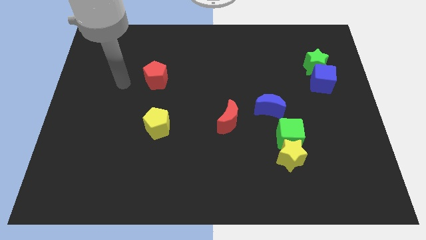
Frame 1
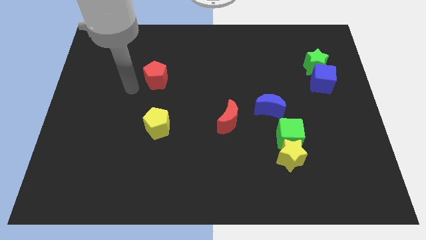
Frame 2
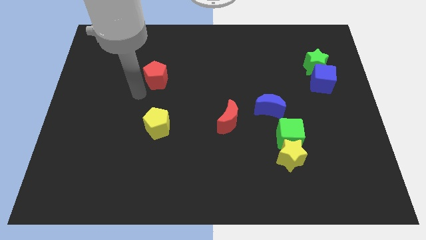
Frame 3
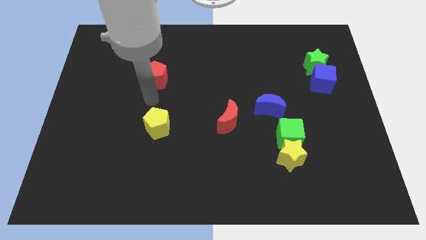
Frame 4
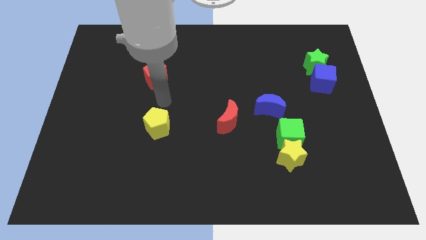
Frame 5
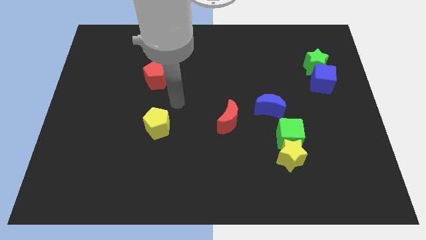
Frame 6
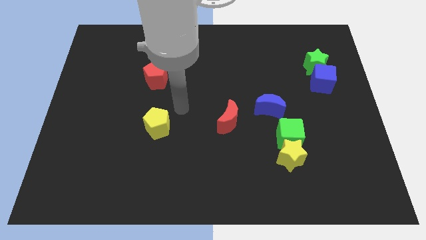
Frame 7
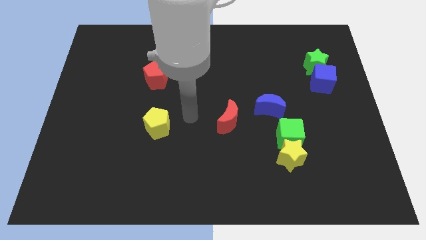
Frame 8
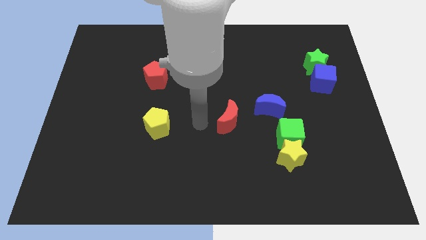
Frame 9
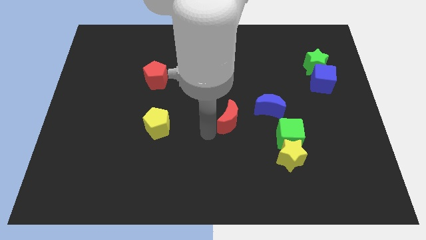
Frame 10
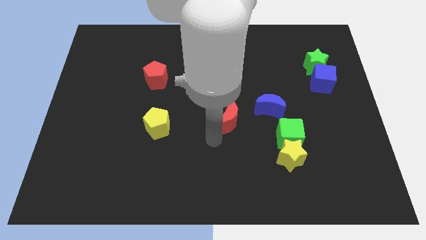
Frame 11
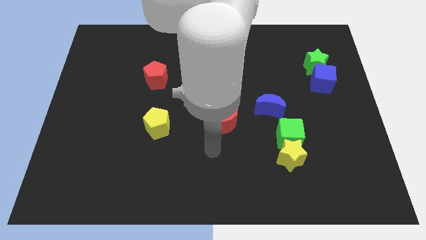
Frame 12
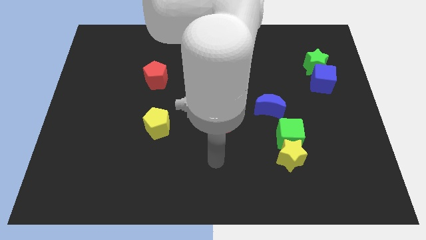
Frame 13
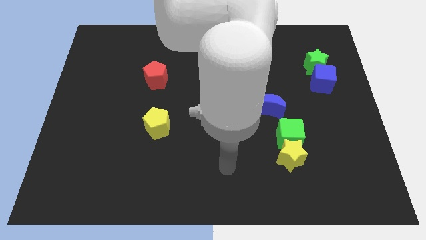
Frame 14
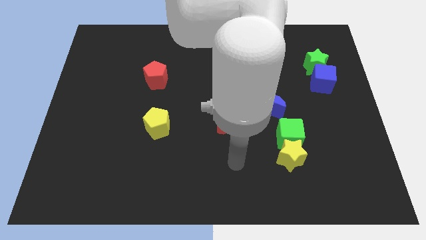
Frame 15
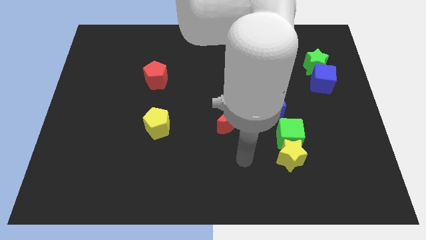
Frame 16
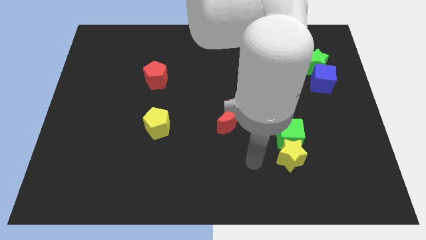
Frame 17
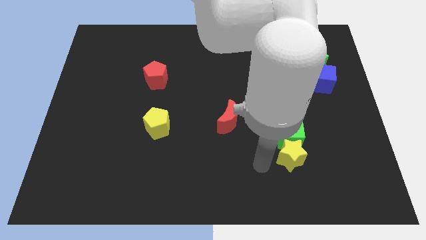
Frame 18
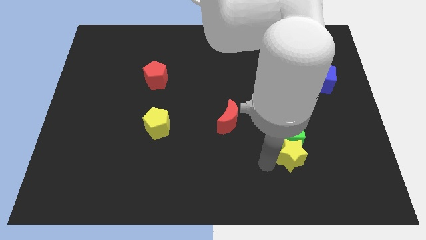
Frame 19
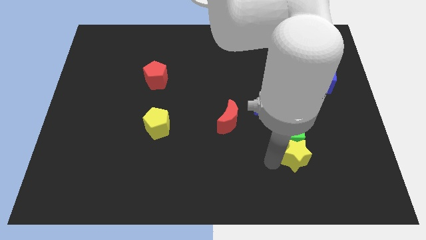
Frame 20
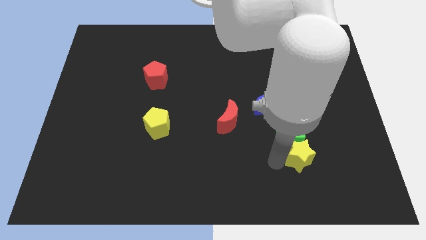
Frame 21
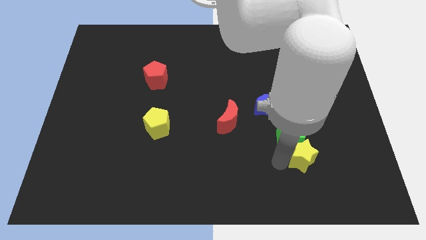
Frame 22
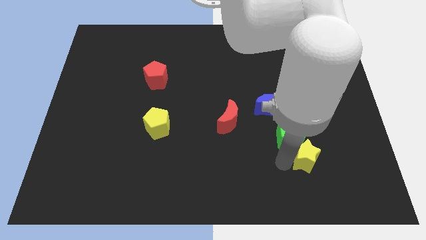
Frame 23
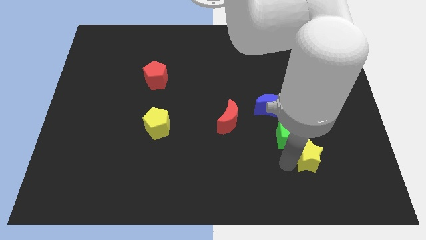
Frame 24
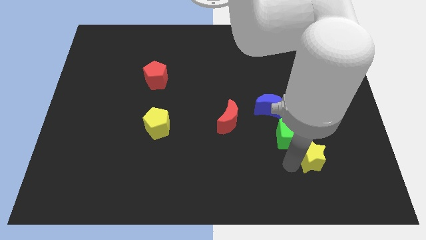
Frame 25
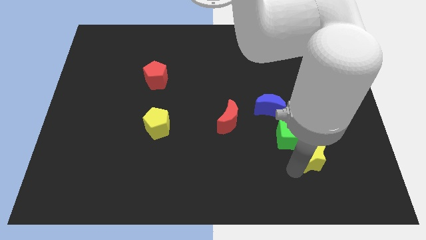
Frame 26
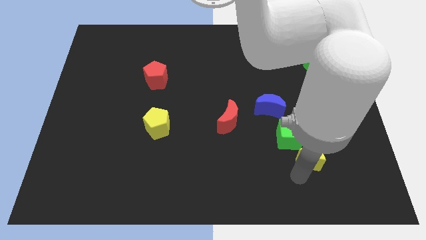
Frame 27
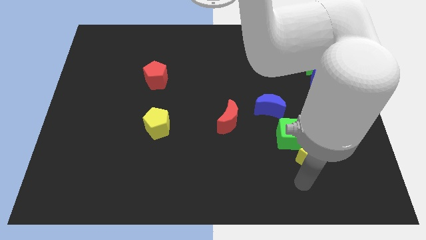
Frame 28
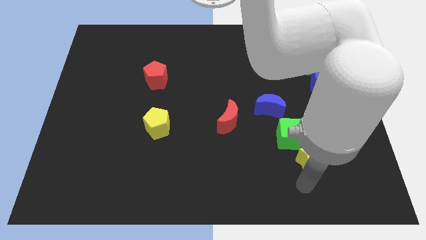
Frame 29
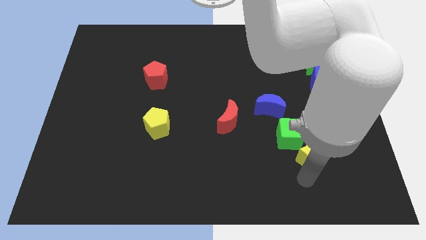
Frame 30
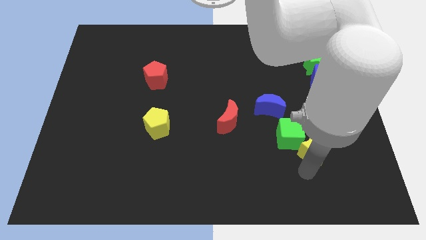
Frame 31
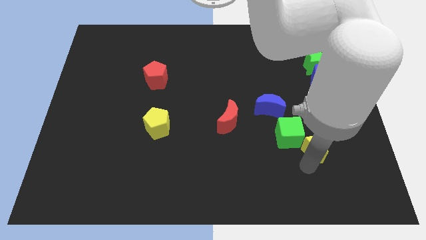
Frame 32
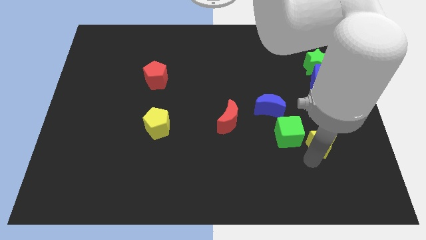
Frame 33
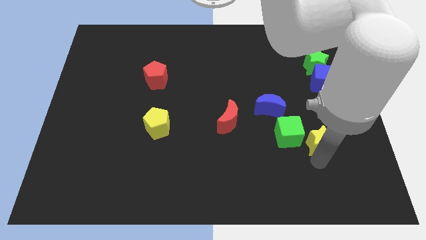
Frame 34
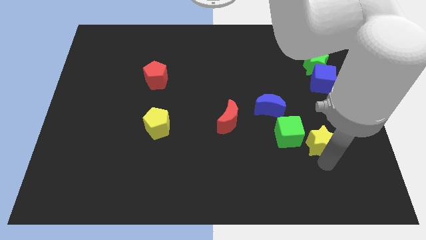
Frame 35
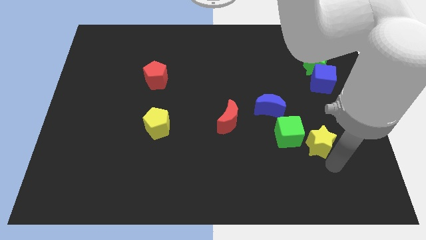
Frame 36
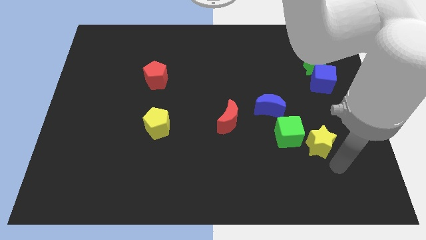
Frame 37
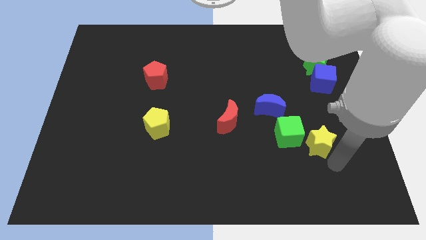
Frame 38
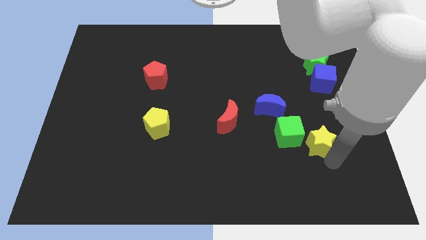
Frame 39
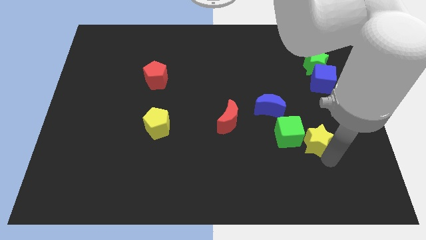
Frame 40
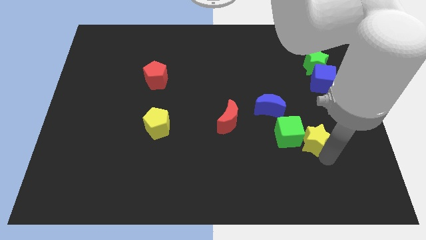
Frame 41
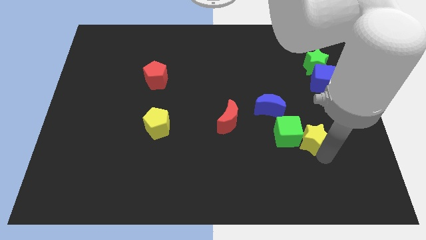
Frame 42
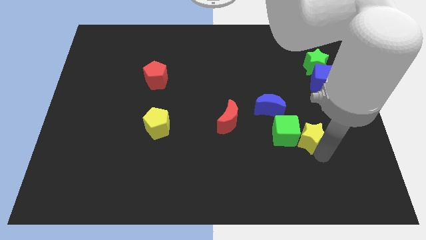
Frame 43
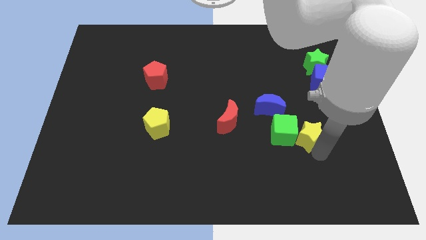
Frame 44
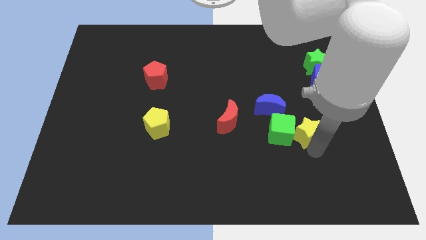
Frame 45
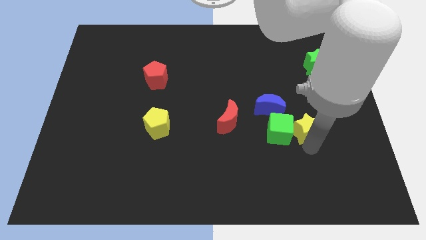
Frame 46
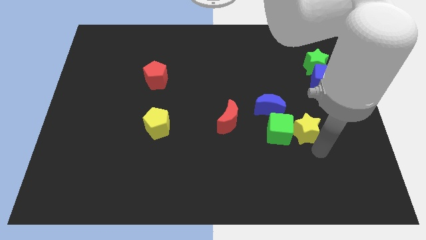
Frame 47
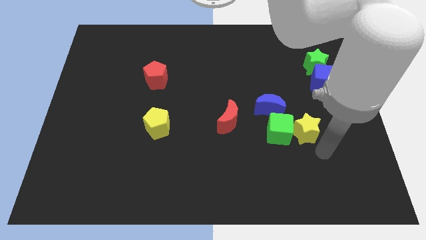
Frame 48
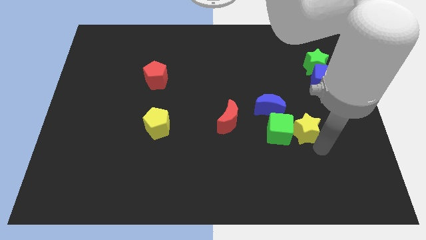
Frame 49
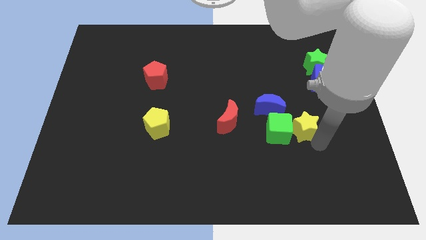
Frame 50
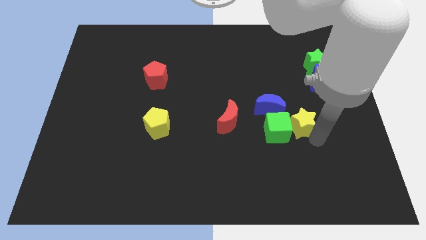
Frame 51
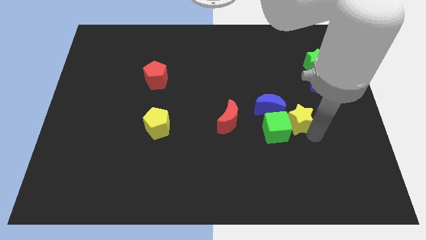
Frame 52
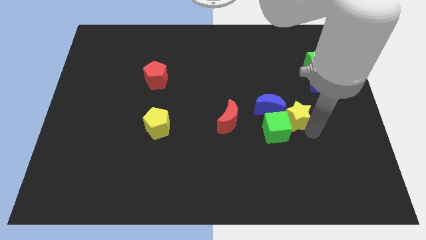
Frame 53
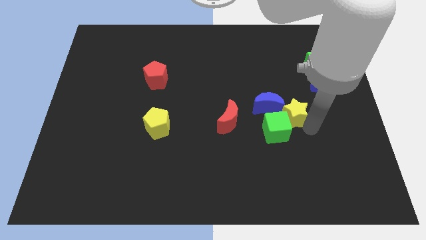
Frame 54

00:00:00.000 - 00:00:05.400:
move the yellow star to the top of the green cube

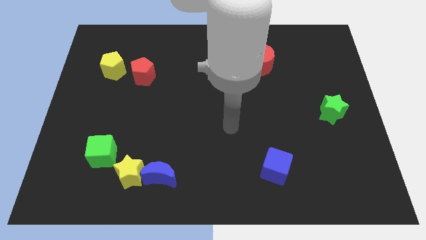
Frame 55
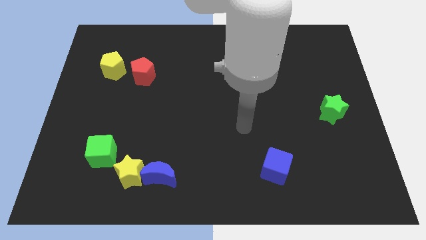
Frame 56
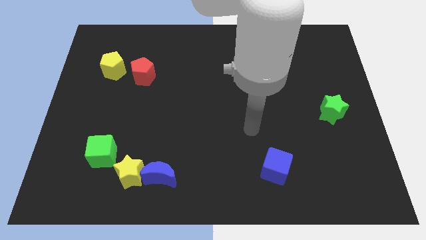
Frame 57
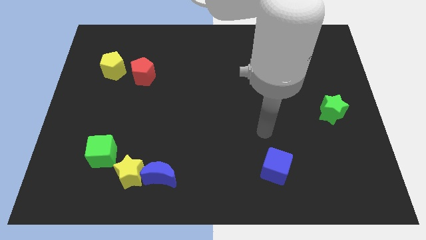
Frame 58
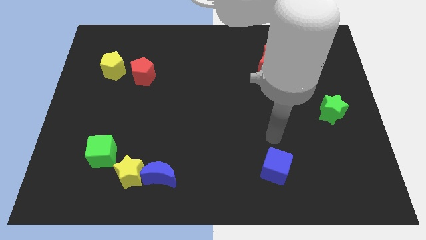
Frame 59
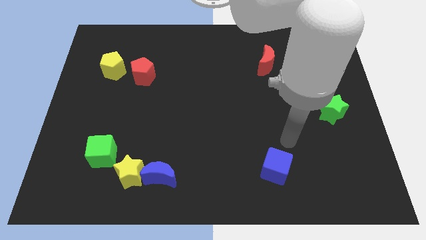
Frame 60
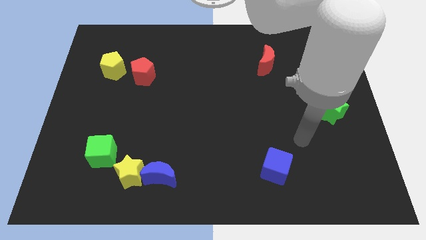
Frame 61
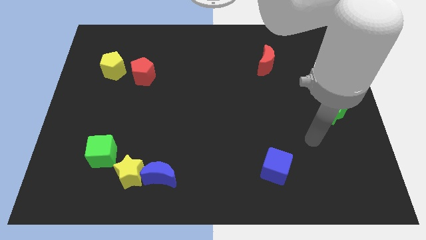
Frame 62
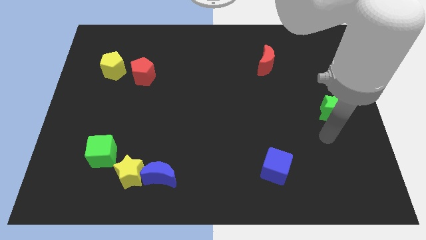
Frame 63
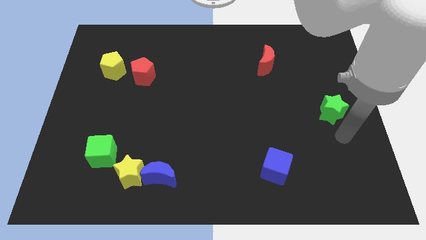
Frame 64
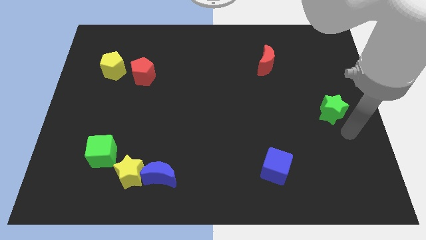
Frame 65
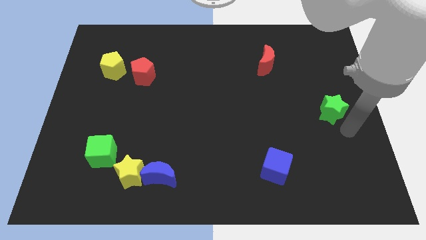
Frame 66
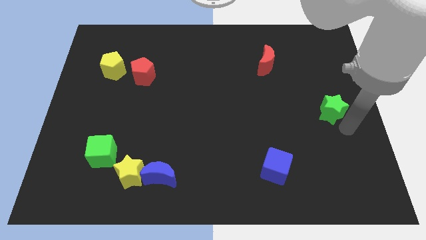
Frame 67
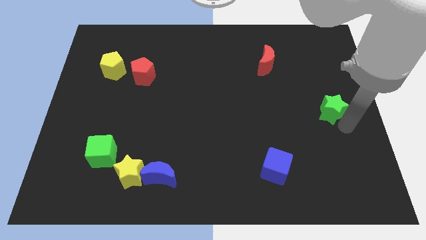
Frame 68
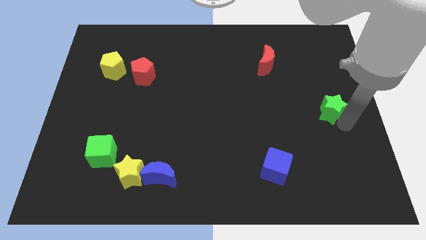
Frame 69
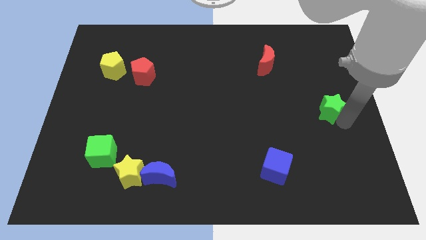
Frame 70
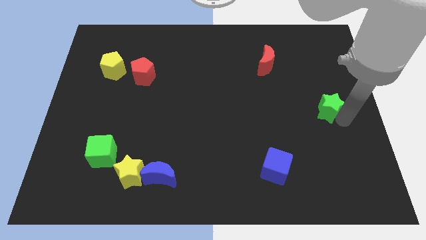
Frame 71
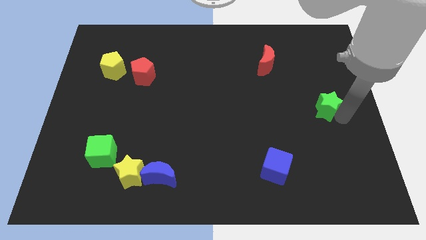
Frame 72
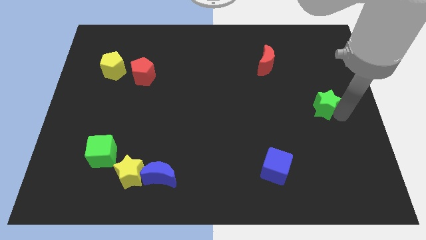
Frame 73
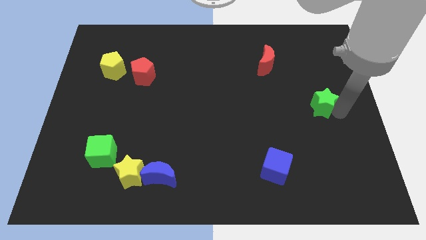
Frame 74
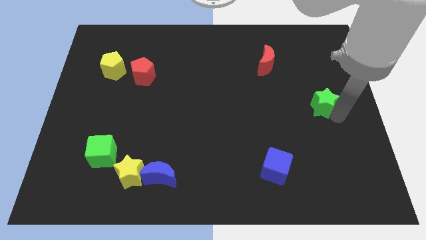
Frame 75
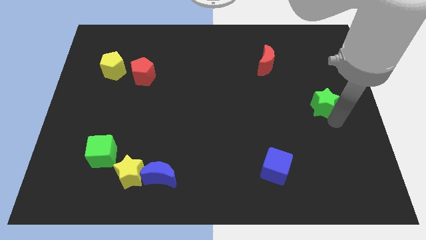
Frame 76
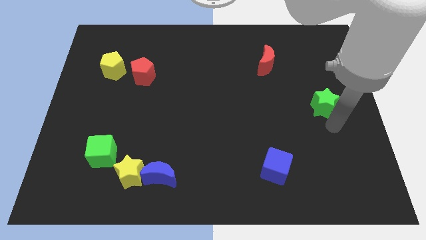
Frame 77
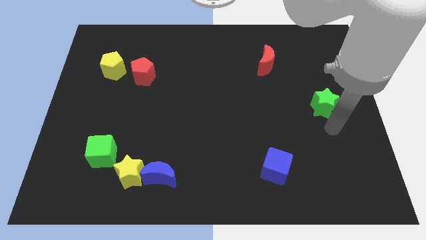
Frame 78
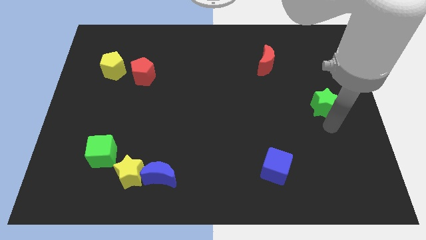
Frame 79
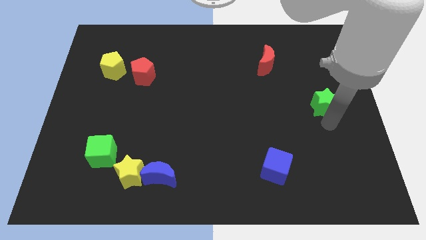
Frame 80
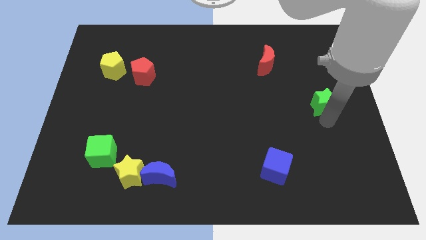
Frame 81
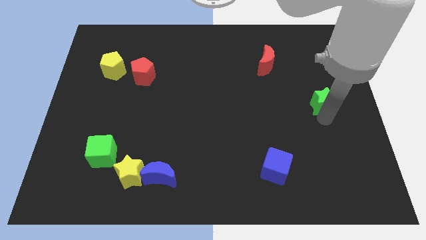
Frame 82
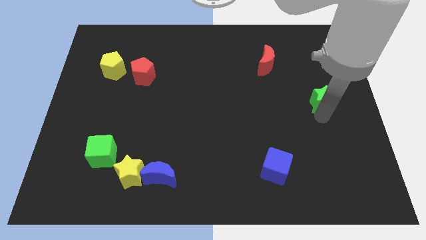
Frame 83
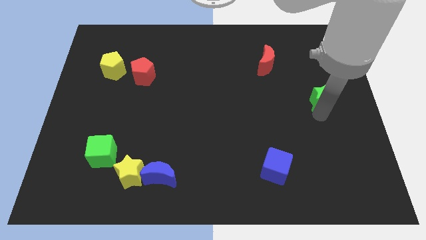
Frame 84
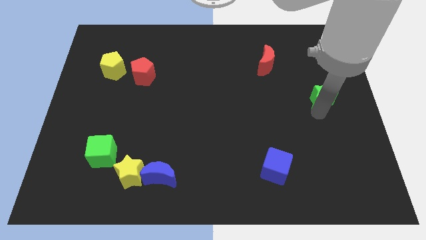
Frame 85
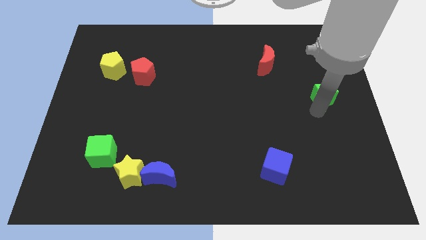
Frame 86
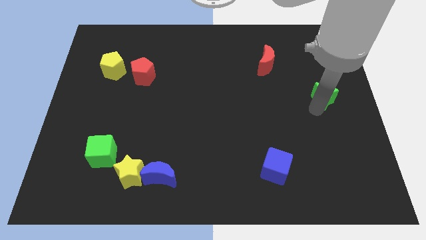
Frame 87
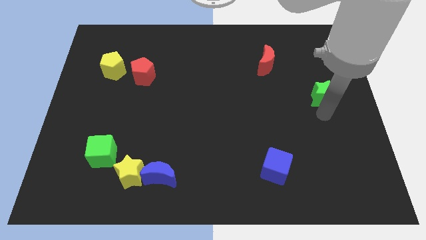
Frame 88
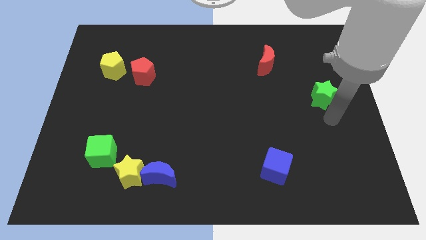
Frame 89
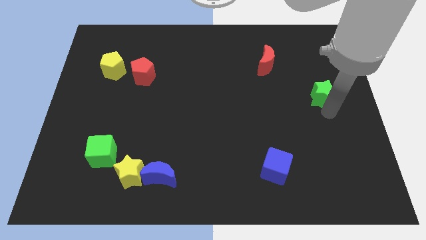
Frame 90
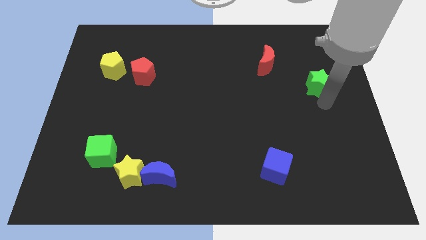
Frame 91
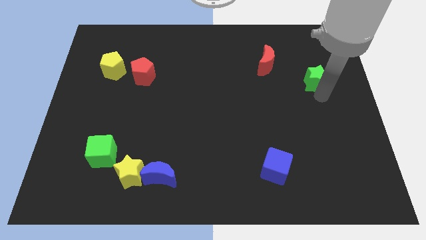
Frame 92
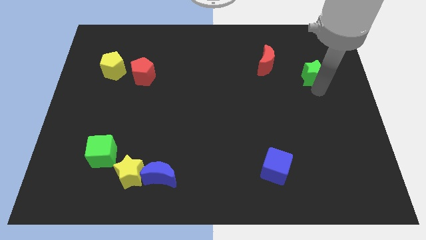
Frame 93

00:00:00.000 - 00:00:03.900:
move the green star to the right side of the red moon
